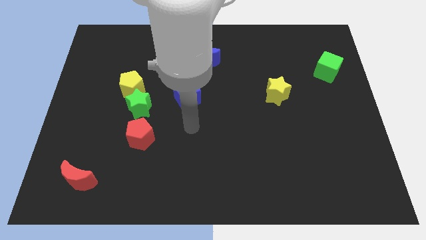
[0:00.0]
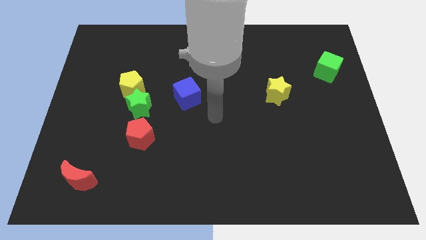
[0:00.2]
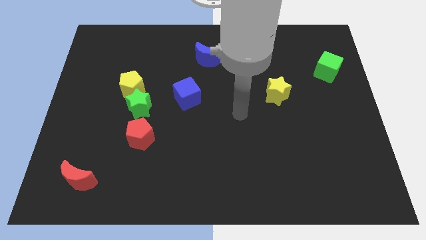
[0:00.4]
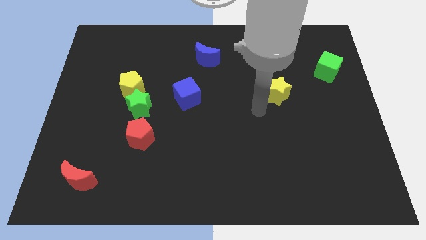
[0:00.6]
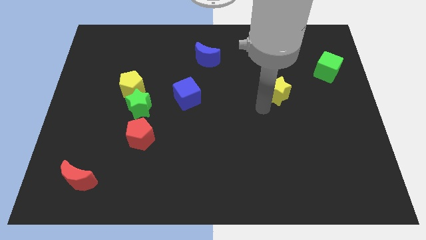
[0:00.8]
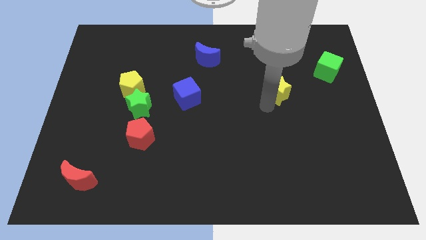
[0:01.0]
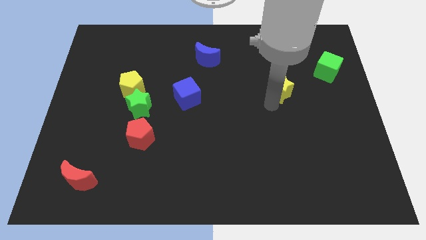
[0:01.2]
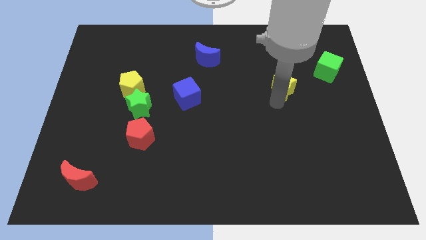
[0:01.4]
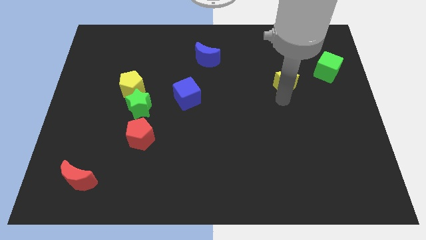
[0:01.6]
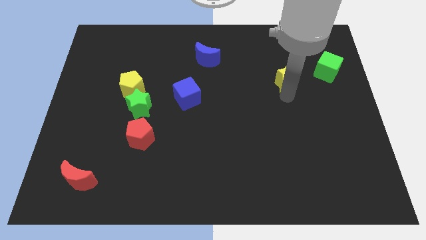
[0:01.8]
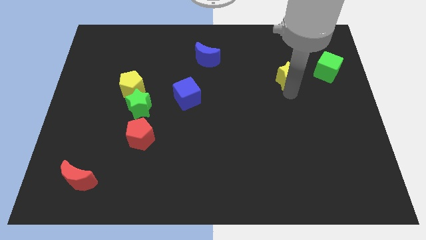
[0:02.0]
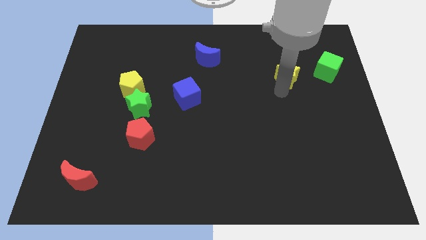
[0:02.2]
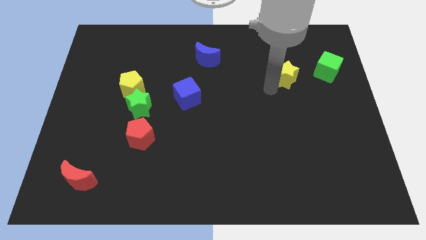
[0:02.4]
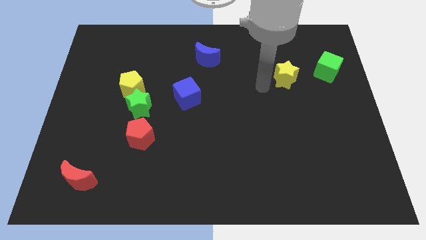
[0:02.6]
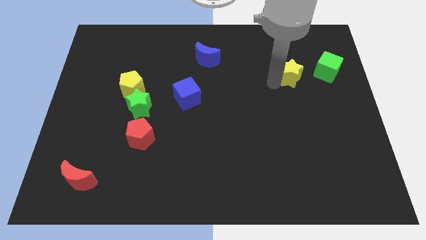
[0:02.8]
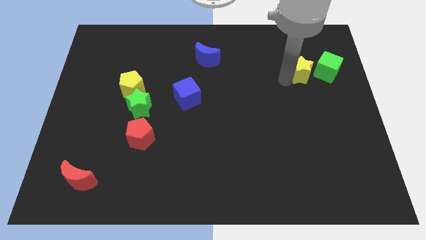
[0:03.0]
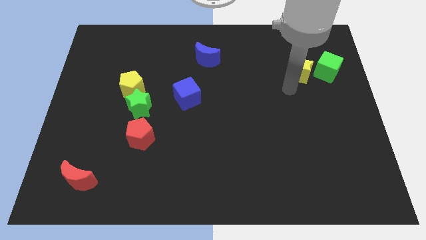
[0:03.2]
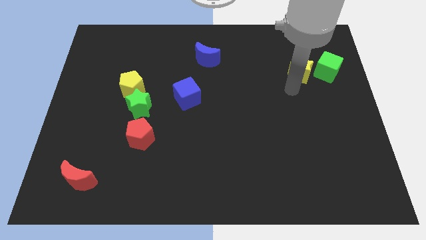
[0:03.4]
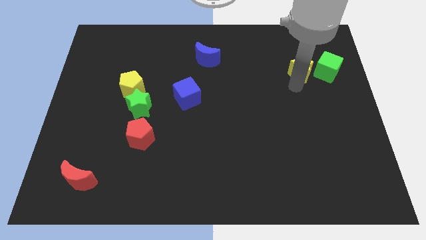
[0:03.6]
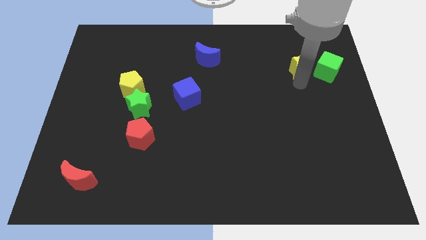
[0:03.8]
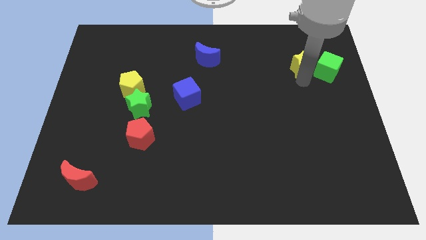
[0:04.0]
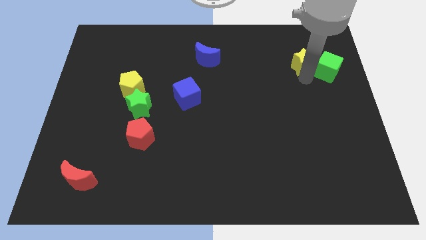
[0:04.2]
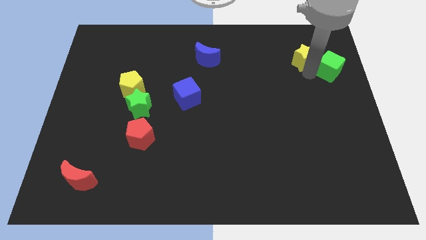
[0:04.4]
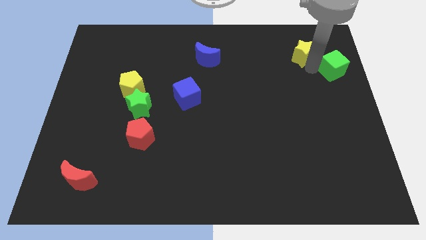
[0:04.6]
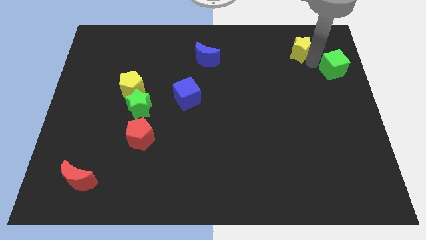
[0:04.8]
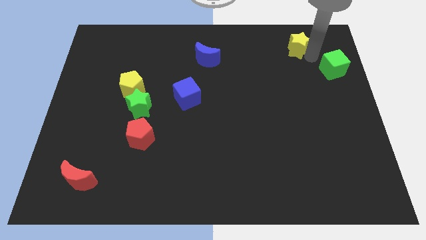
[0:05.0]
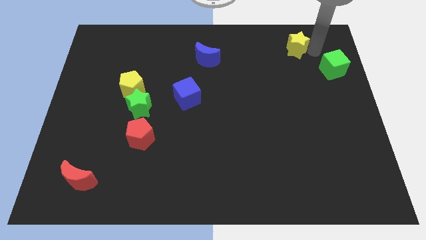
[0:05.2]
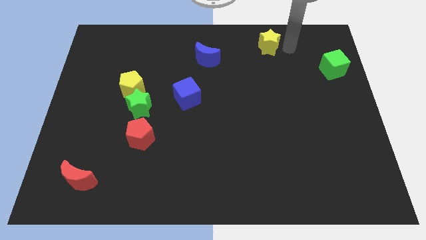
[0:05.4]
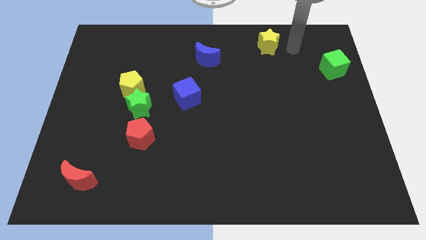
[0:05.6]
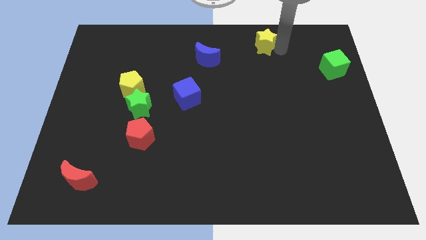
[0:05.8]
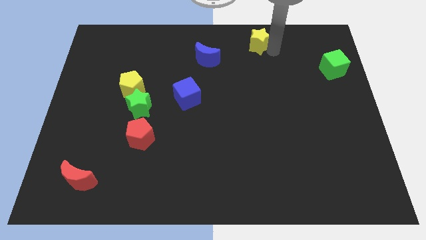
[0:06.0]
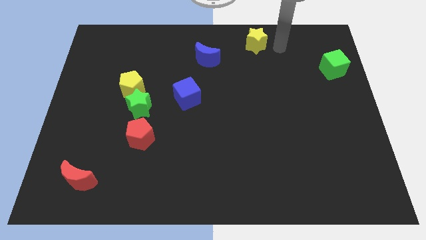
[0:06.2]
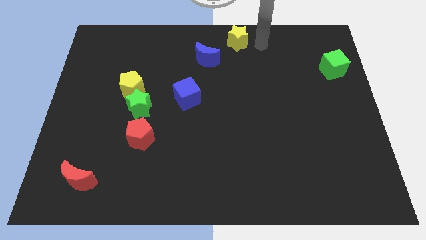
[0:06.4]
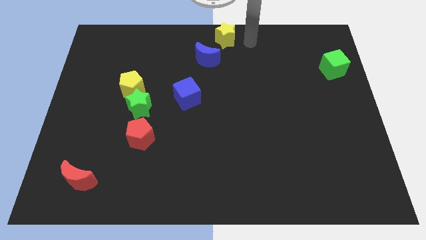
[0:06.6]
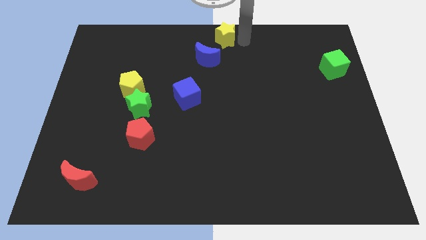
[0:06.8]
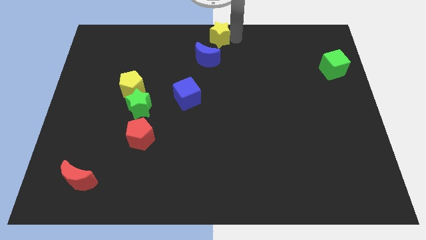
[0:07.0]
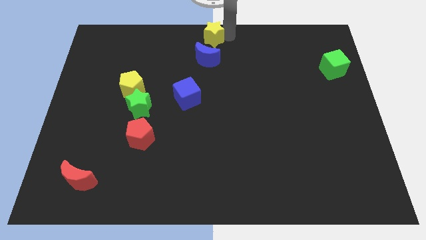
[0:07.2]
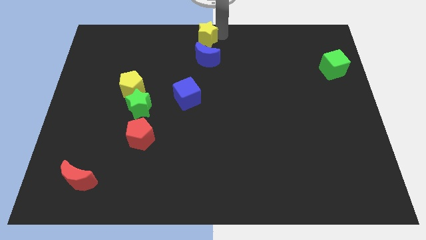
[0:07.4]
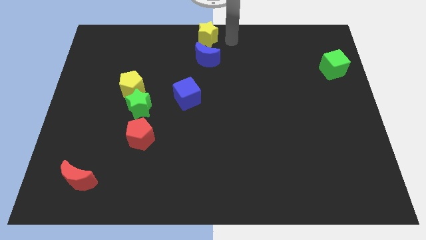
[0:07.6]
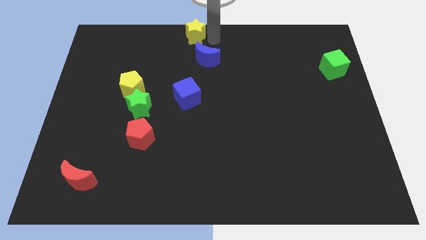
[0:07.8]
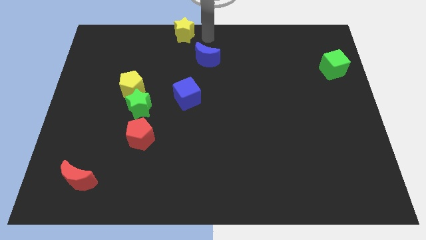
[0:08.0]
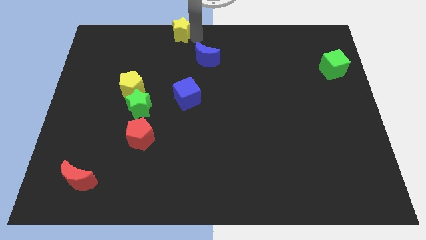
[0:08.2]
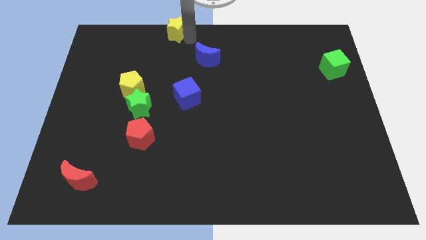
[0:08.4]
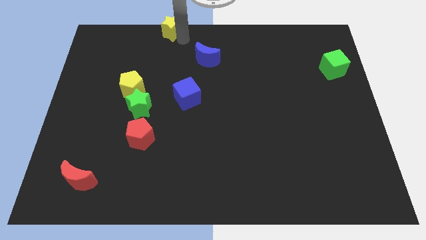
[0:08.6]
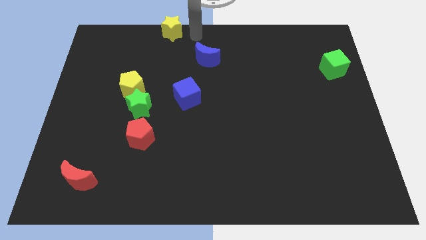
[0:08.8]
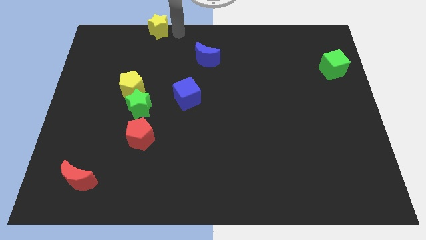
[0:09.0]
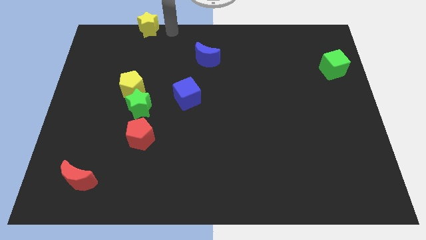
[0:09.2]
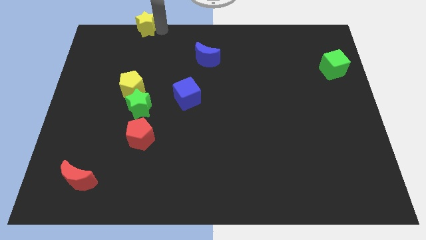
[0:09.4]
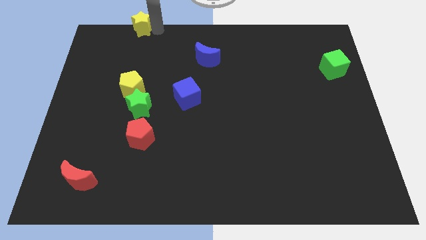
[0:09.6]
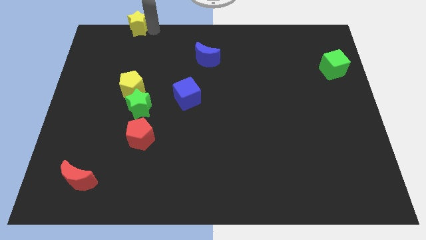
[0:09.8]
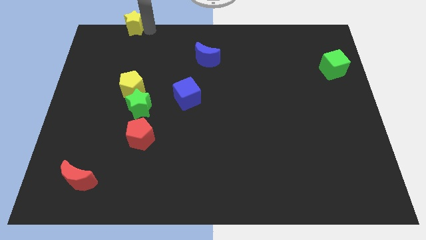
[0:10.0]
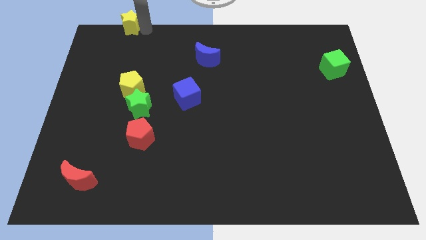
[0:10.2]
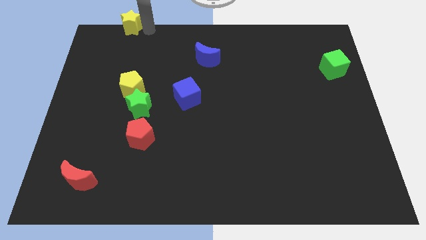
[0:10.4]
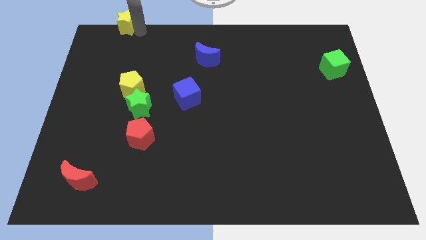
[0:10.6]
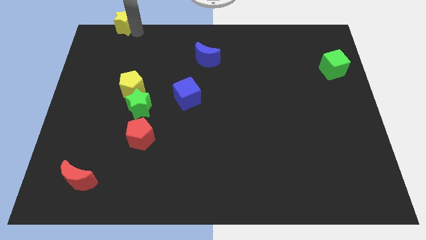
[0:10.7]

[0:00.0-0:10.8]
slide the yellow star to the top left

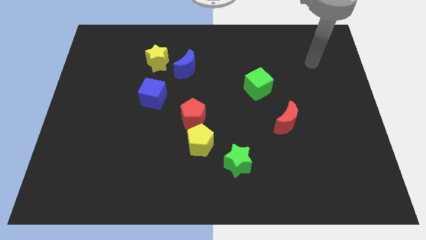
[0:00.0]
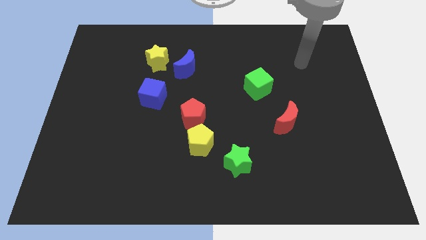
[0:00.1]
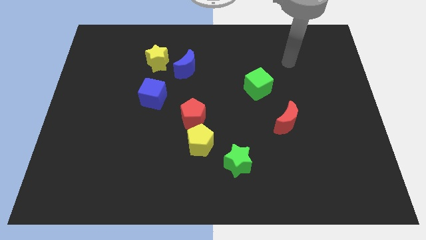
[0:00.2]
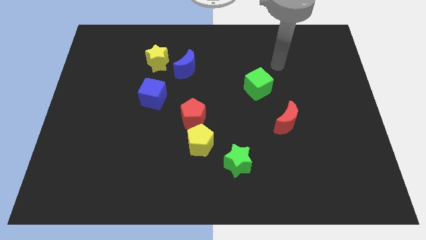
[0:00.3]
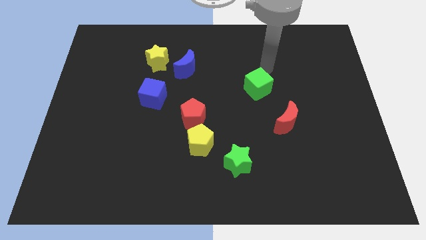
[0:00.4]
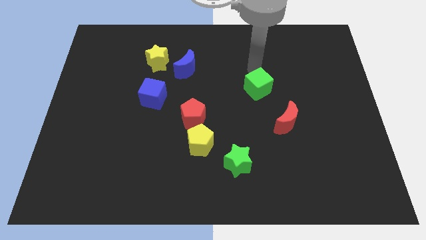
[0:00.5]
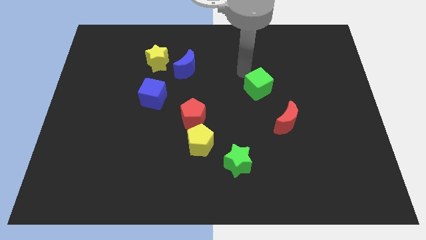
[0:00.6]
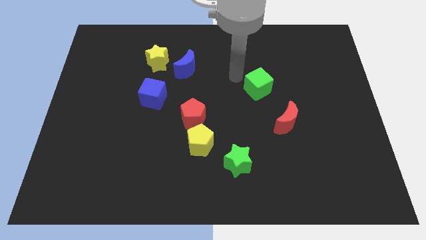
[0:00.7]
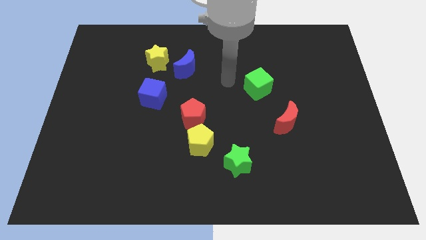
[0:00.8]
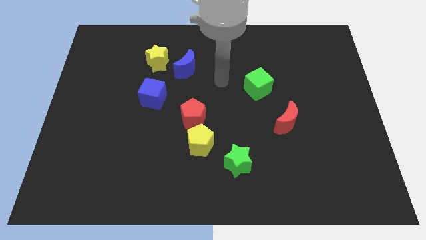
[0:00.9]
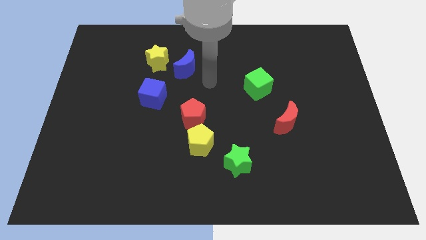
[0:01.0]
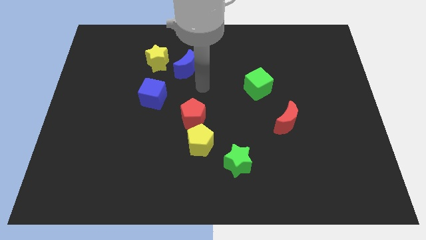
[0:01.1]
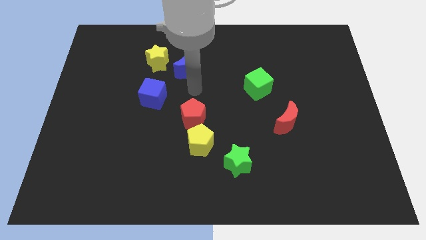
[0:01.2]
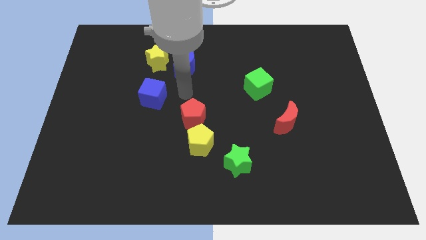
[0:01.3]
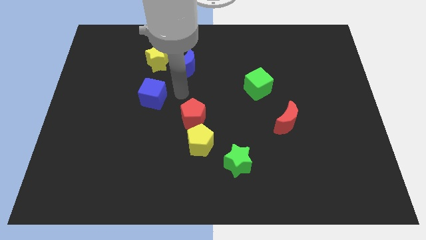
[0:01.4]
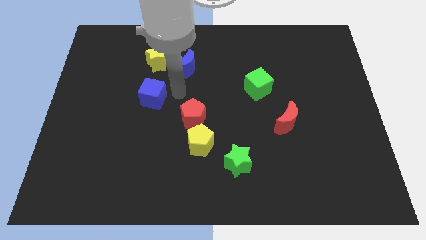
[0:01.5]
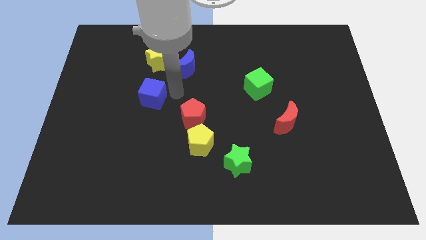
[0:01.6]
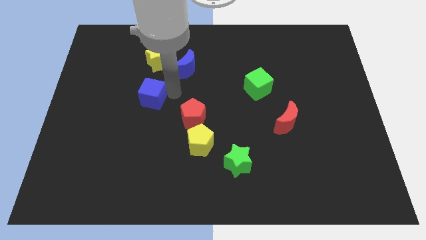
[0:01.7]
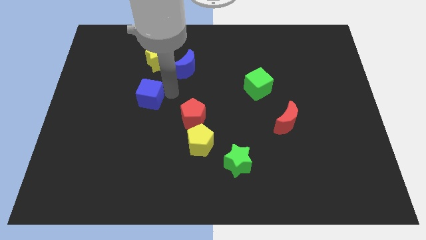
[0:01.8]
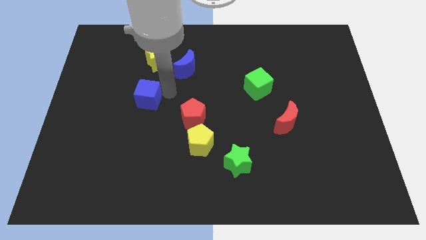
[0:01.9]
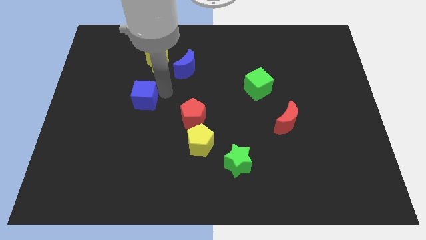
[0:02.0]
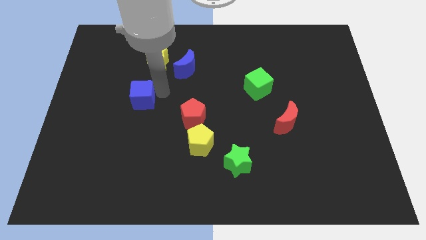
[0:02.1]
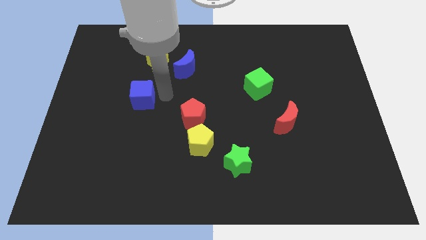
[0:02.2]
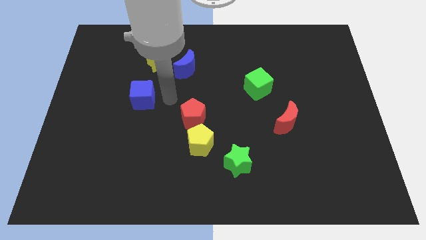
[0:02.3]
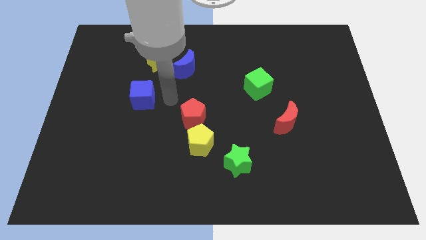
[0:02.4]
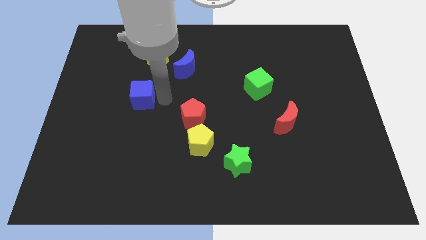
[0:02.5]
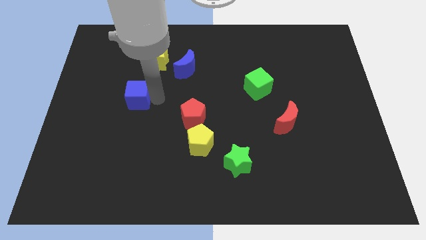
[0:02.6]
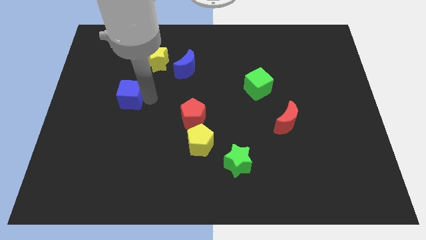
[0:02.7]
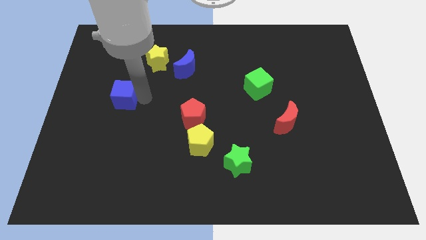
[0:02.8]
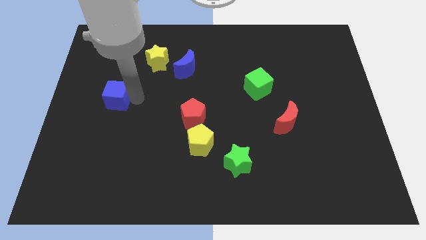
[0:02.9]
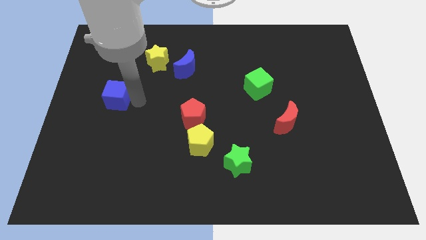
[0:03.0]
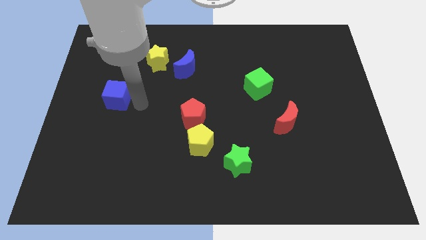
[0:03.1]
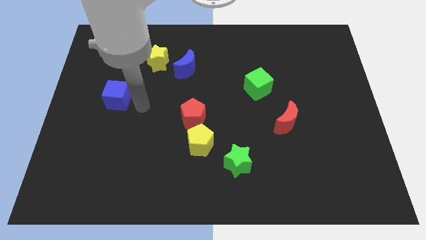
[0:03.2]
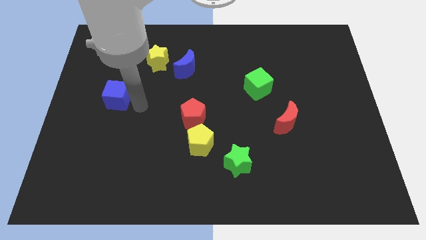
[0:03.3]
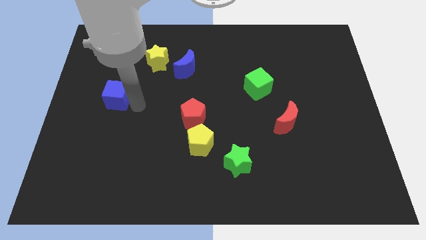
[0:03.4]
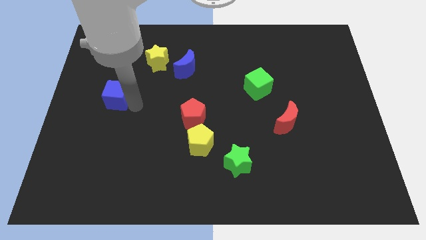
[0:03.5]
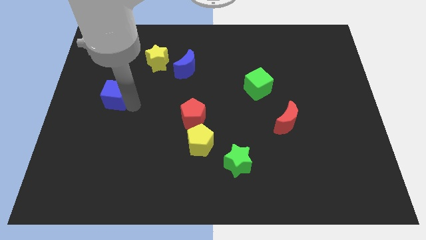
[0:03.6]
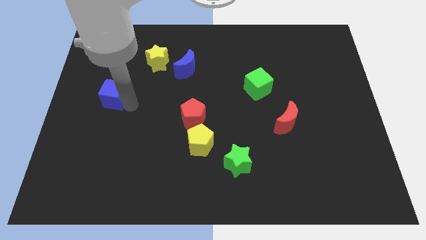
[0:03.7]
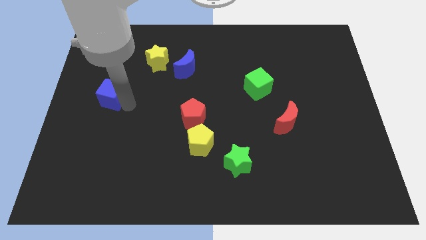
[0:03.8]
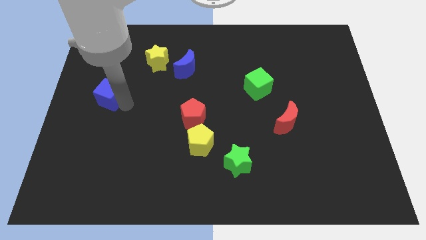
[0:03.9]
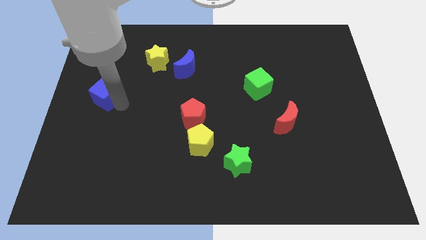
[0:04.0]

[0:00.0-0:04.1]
slide the blue cube to the left side
